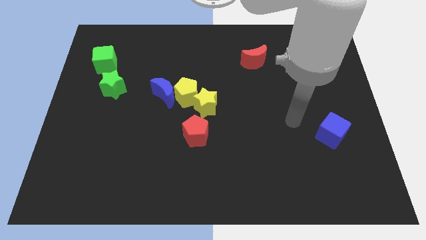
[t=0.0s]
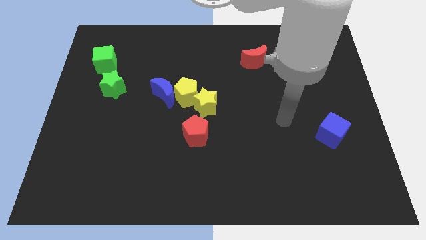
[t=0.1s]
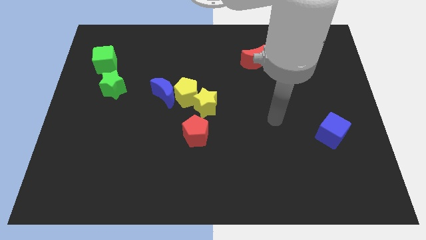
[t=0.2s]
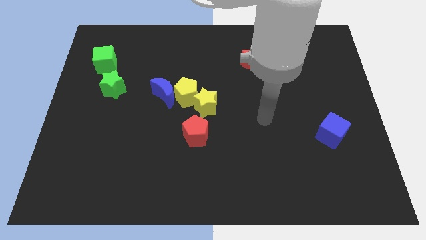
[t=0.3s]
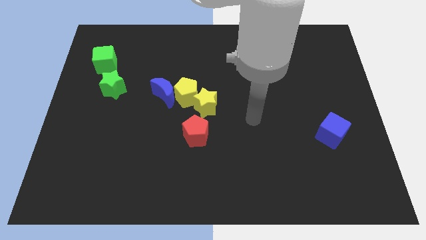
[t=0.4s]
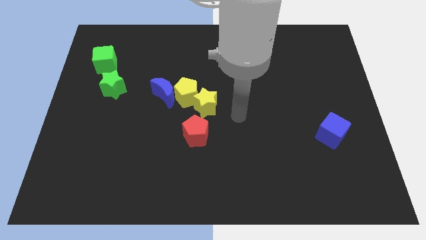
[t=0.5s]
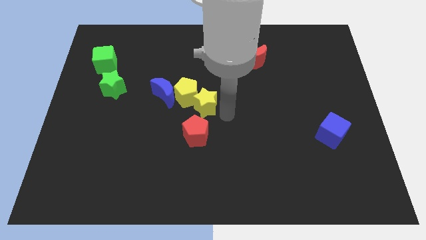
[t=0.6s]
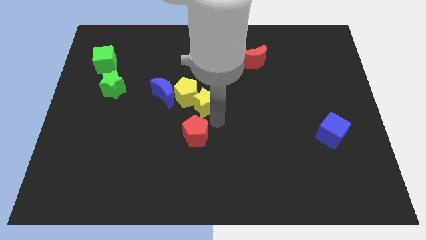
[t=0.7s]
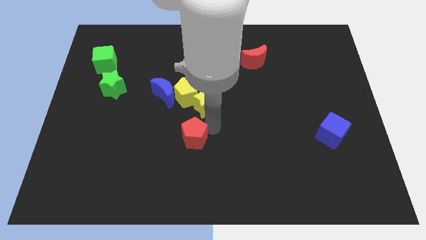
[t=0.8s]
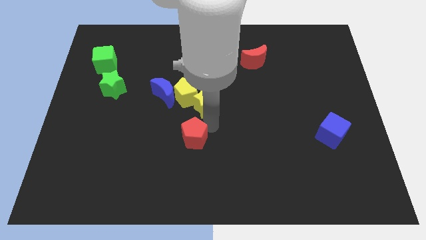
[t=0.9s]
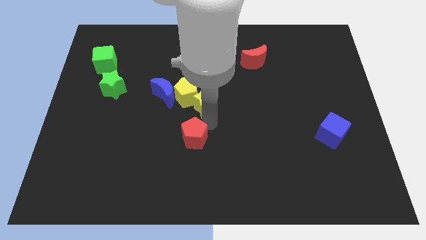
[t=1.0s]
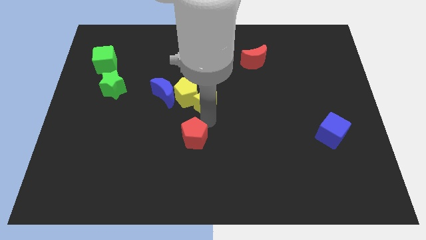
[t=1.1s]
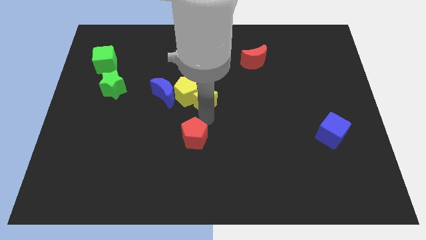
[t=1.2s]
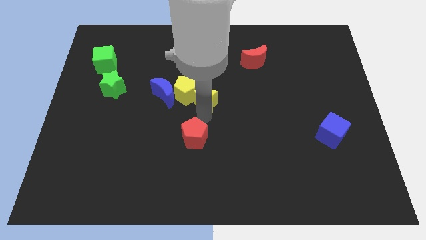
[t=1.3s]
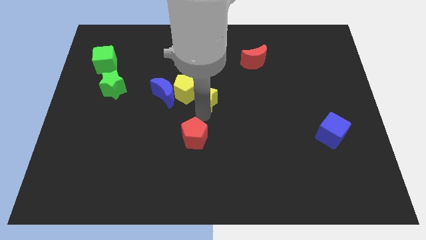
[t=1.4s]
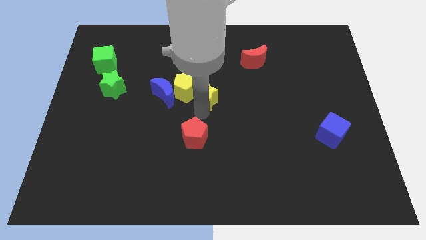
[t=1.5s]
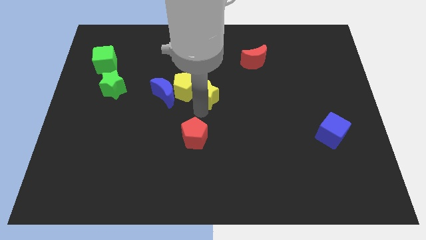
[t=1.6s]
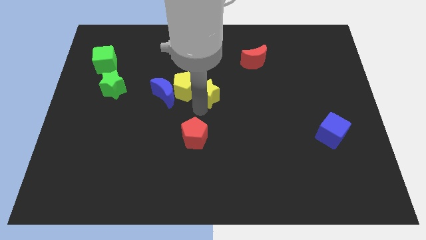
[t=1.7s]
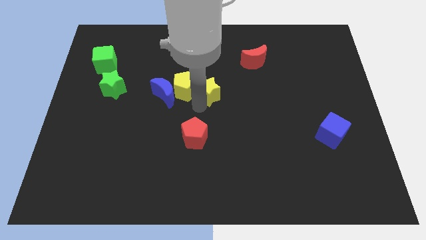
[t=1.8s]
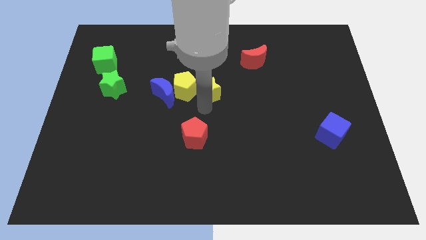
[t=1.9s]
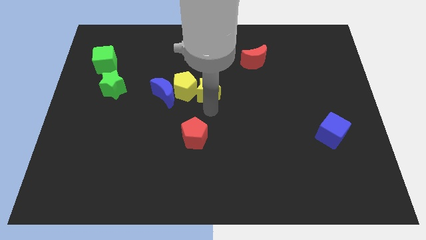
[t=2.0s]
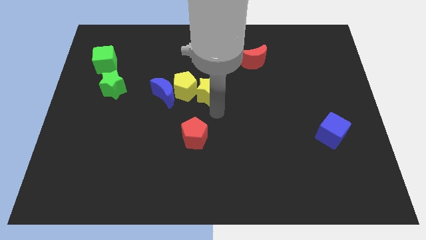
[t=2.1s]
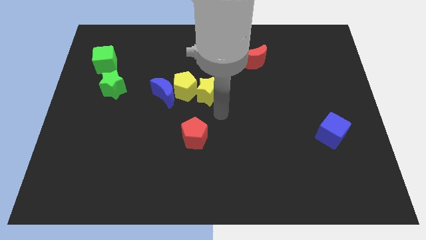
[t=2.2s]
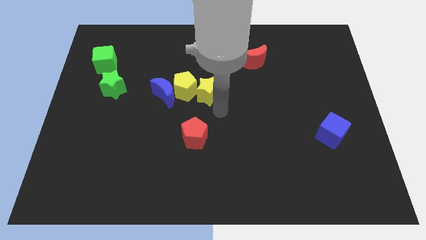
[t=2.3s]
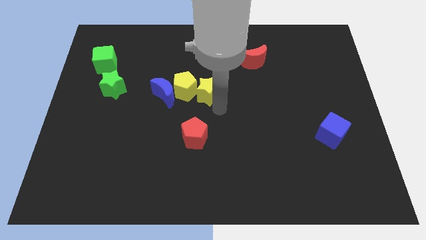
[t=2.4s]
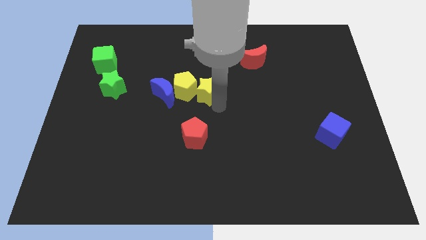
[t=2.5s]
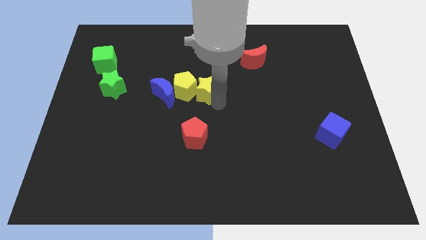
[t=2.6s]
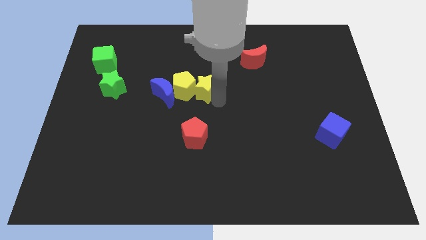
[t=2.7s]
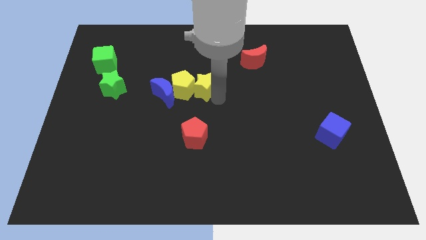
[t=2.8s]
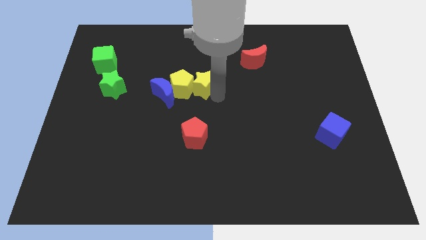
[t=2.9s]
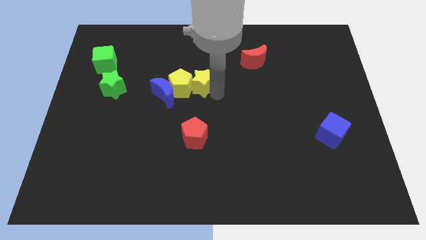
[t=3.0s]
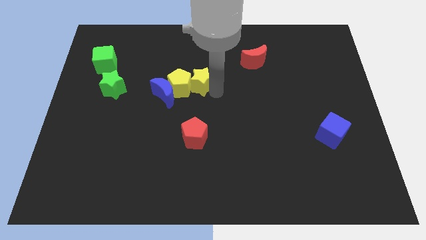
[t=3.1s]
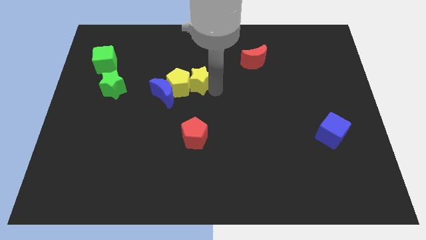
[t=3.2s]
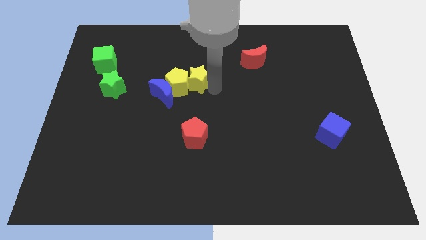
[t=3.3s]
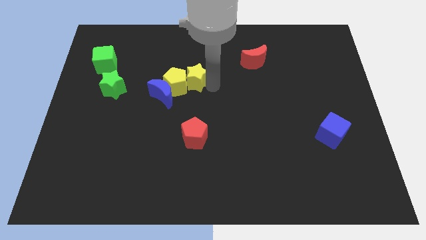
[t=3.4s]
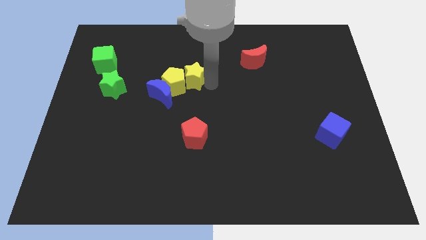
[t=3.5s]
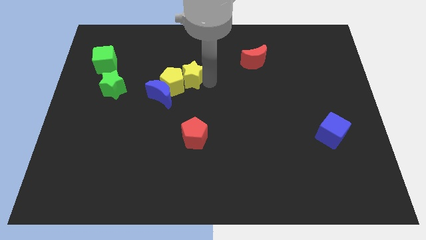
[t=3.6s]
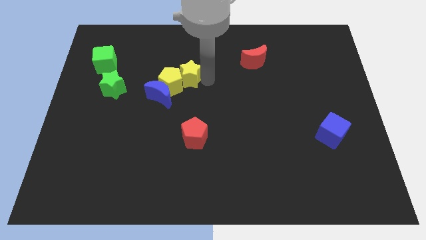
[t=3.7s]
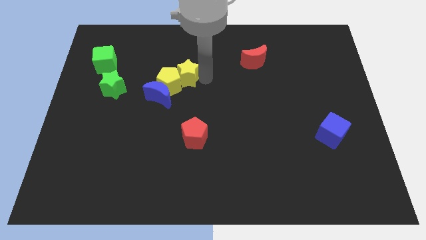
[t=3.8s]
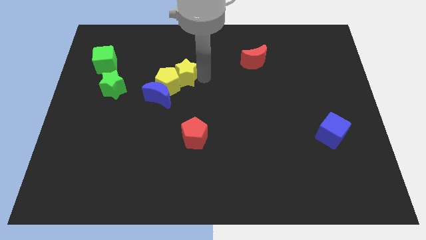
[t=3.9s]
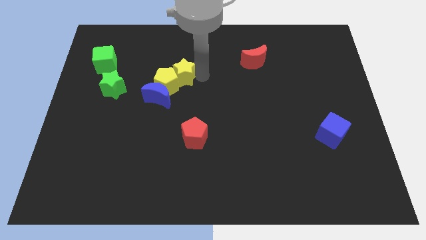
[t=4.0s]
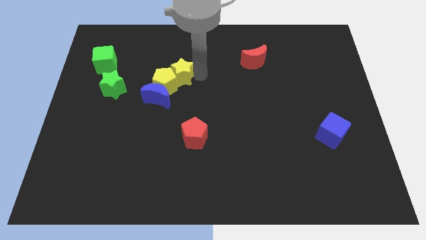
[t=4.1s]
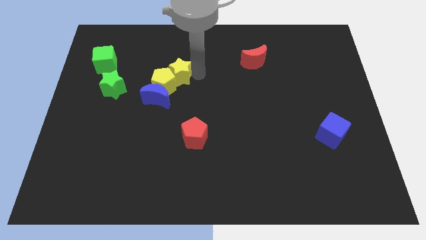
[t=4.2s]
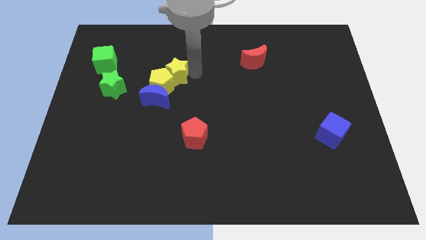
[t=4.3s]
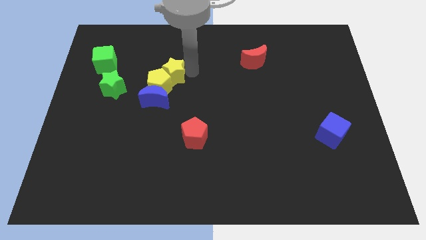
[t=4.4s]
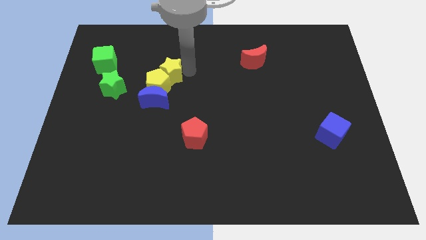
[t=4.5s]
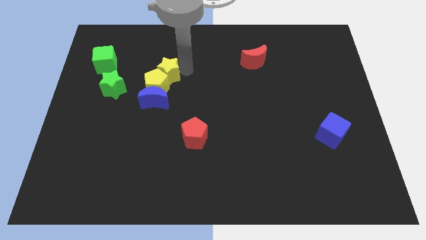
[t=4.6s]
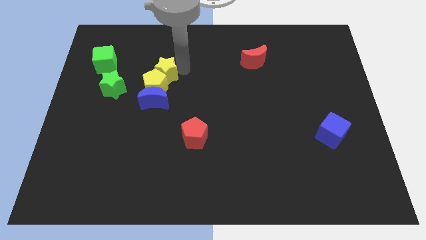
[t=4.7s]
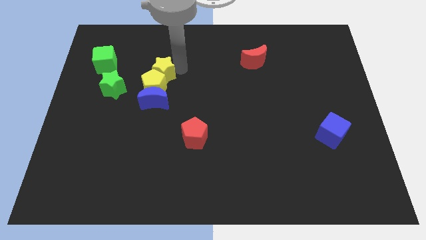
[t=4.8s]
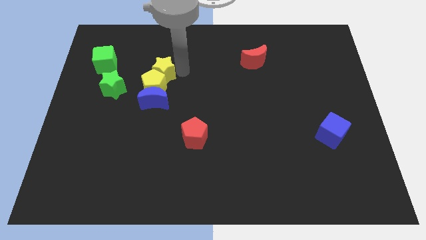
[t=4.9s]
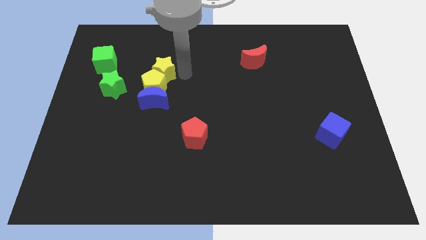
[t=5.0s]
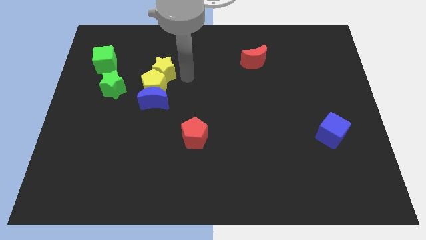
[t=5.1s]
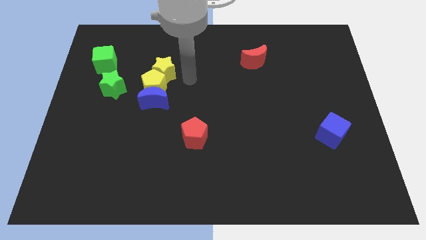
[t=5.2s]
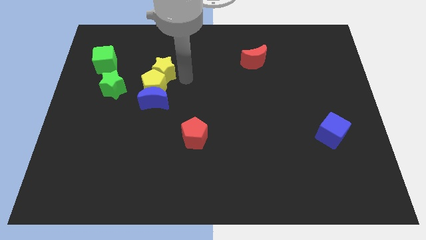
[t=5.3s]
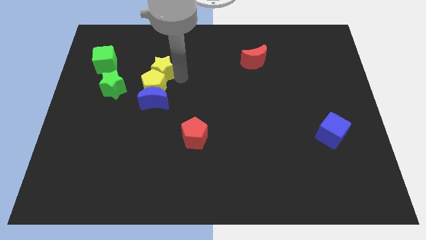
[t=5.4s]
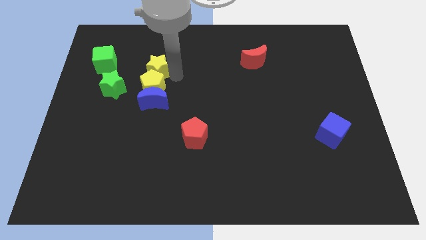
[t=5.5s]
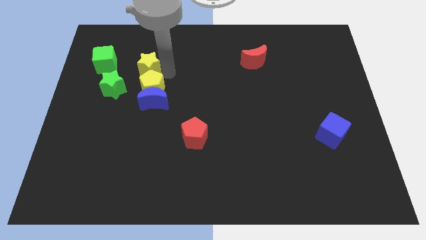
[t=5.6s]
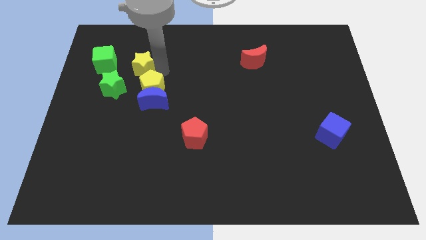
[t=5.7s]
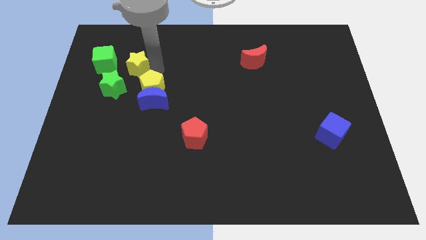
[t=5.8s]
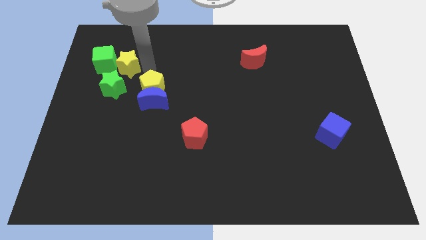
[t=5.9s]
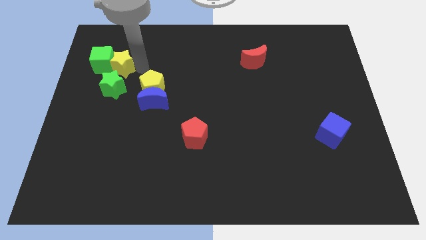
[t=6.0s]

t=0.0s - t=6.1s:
put the yellow star close to the green cube

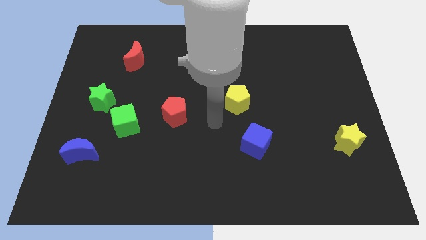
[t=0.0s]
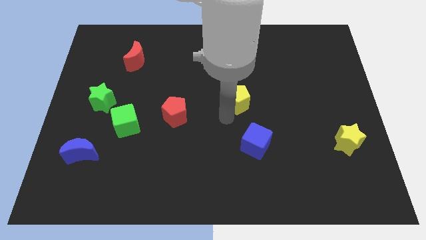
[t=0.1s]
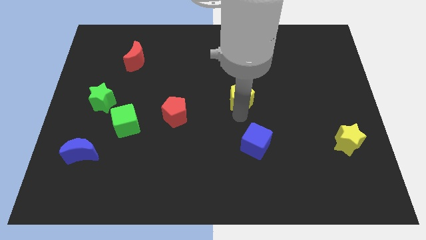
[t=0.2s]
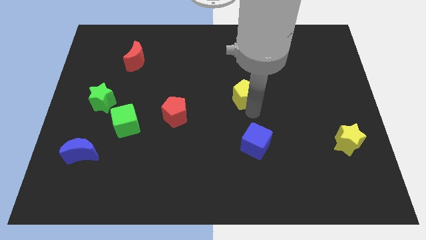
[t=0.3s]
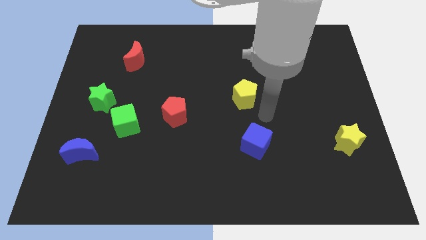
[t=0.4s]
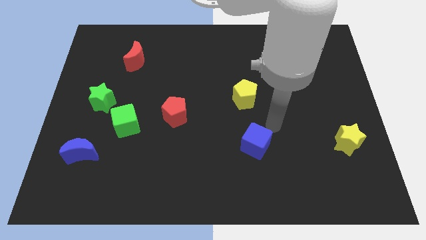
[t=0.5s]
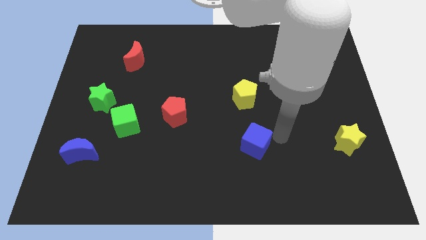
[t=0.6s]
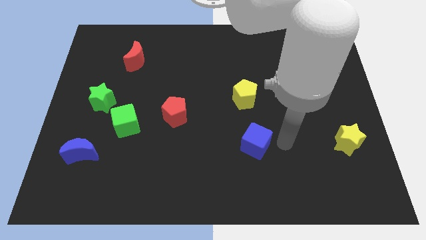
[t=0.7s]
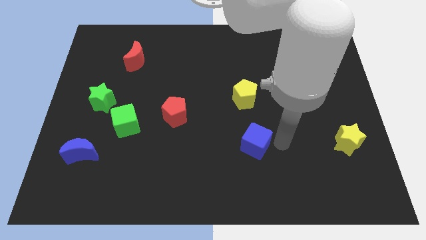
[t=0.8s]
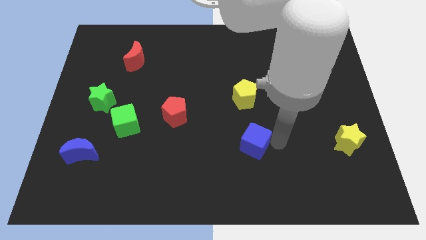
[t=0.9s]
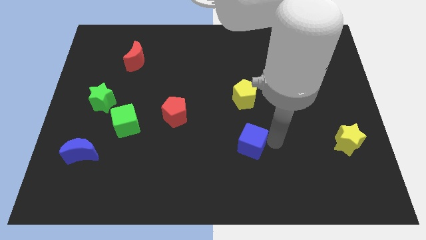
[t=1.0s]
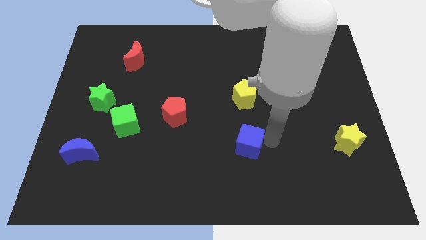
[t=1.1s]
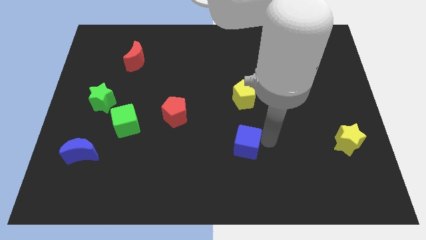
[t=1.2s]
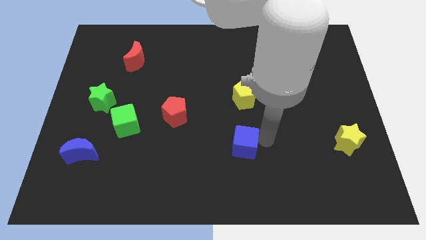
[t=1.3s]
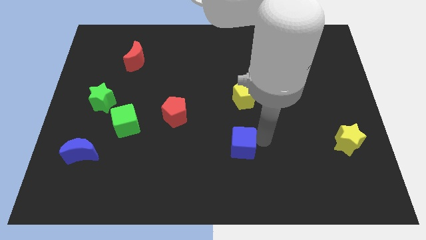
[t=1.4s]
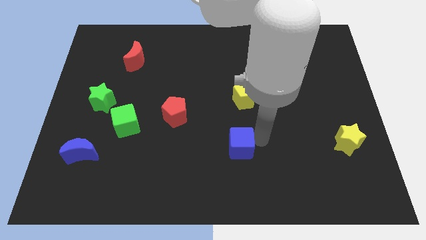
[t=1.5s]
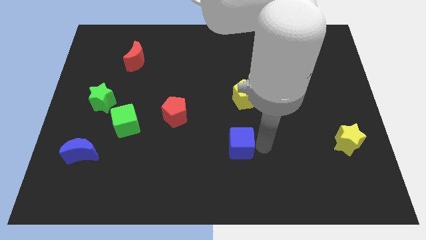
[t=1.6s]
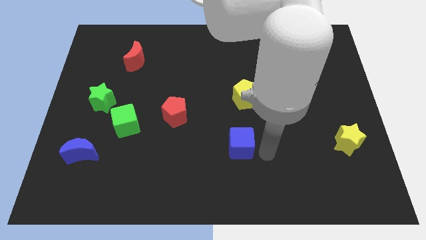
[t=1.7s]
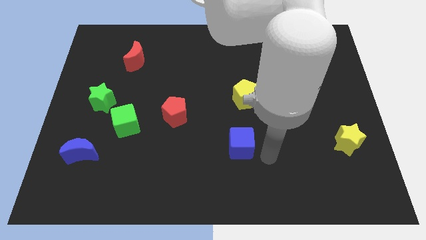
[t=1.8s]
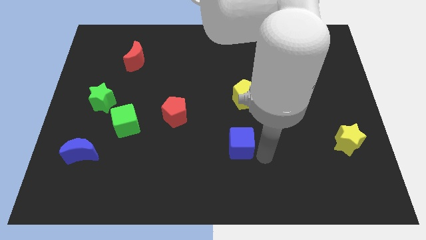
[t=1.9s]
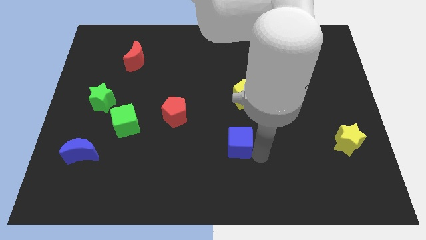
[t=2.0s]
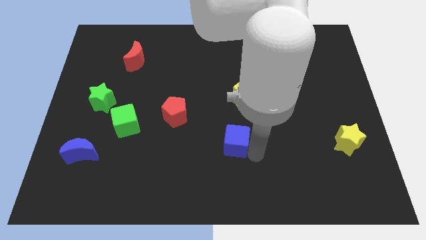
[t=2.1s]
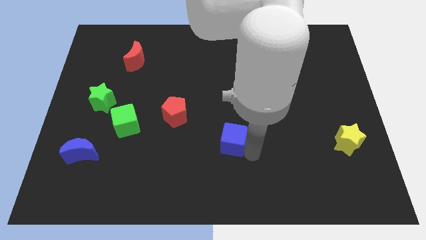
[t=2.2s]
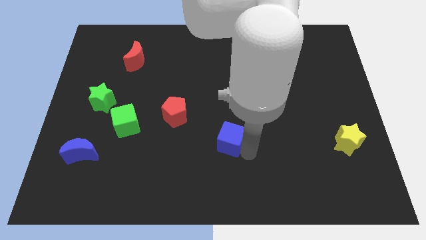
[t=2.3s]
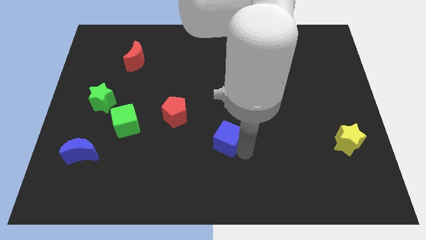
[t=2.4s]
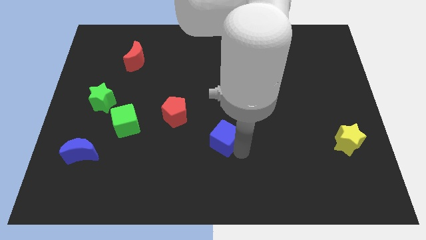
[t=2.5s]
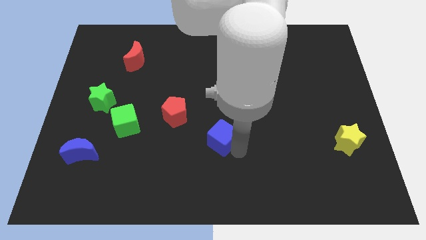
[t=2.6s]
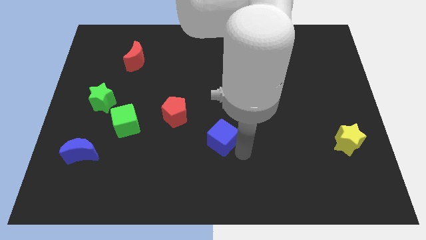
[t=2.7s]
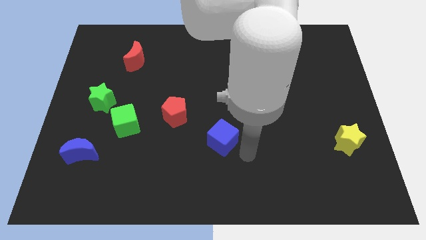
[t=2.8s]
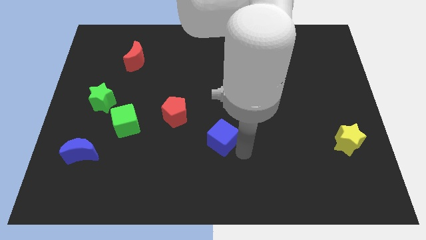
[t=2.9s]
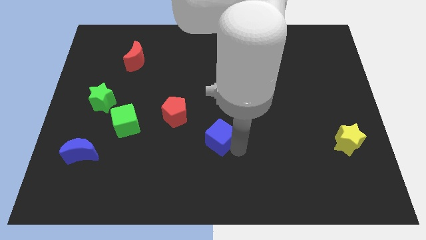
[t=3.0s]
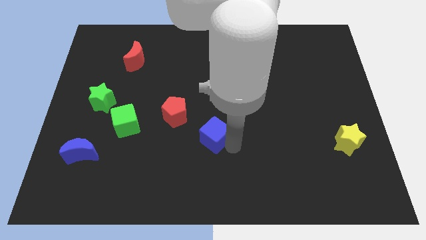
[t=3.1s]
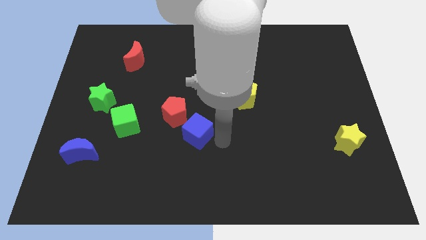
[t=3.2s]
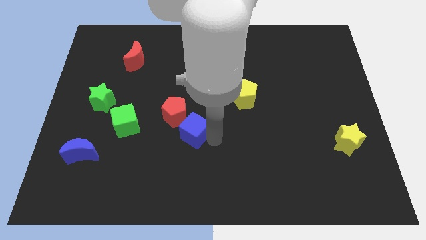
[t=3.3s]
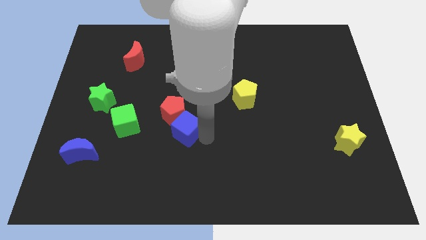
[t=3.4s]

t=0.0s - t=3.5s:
push the blue cube to the red pentagon
